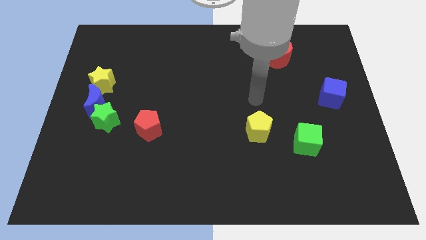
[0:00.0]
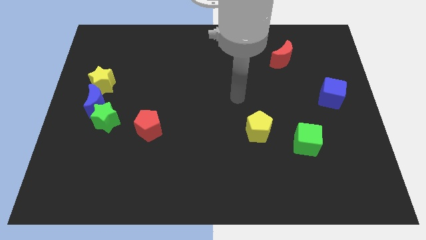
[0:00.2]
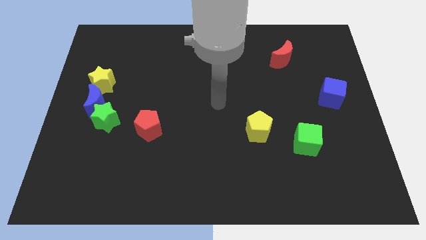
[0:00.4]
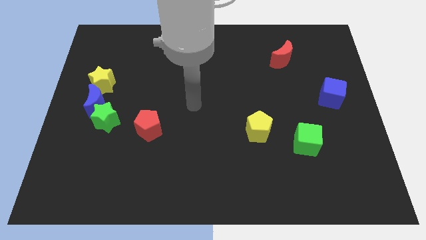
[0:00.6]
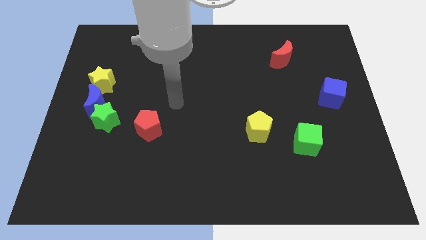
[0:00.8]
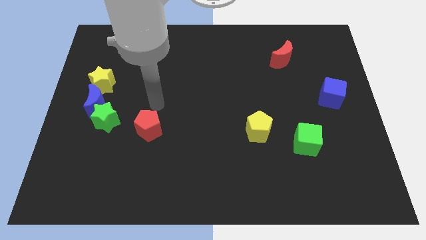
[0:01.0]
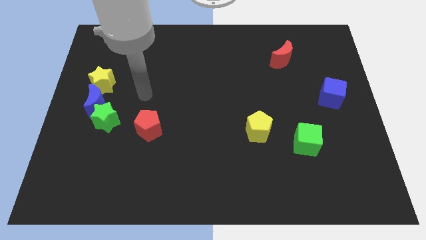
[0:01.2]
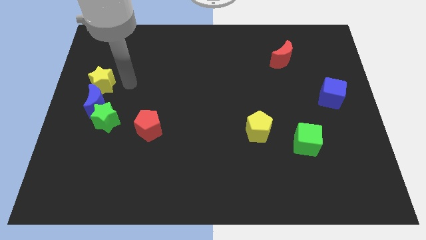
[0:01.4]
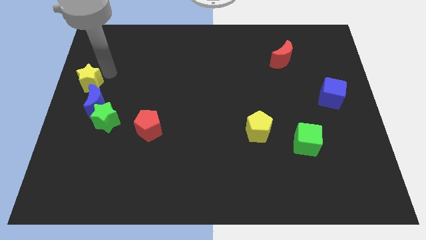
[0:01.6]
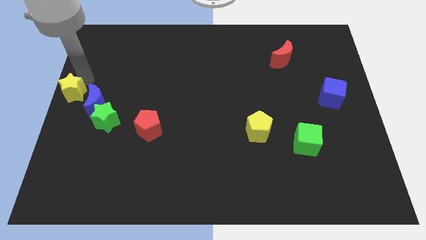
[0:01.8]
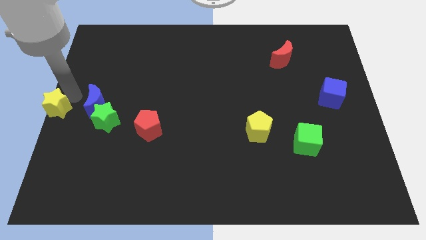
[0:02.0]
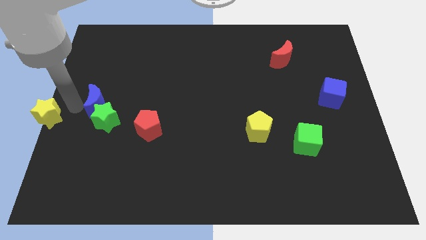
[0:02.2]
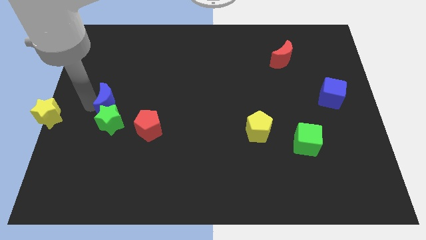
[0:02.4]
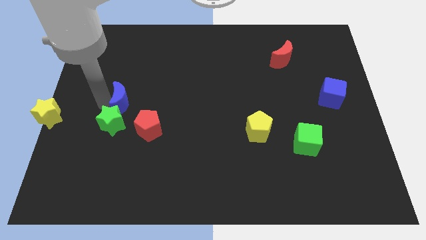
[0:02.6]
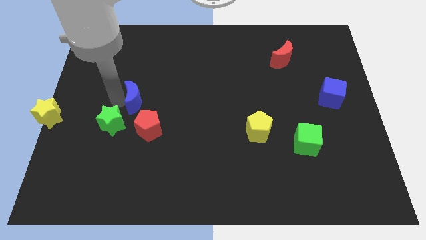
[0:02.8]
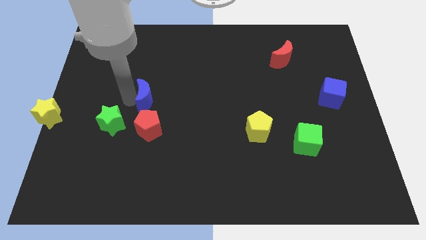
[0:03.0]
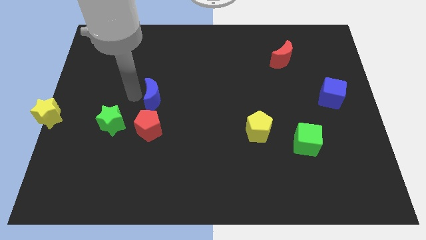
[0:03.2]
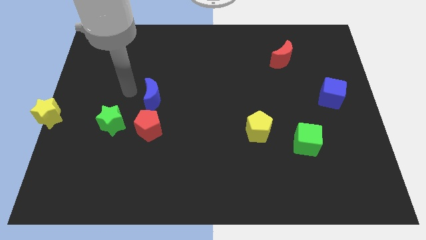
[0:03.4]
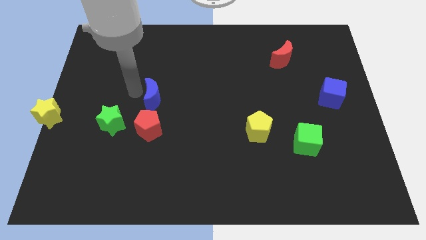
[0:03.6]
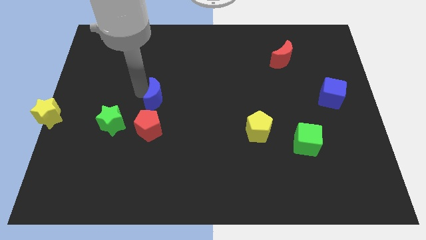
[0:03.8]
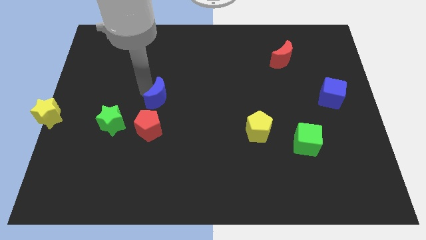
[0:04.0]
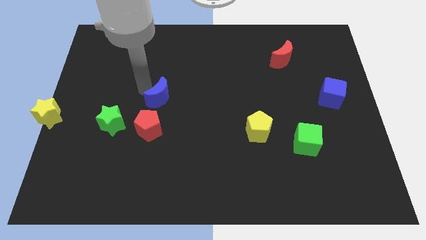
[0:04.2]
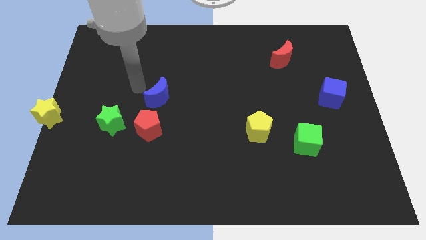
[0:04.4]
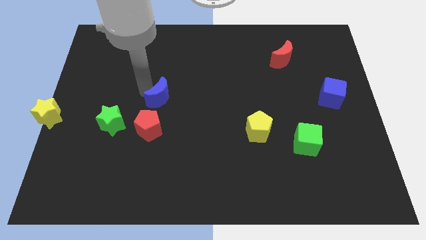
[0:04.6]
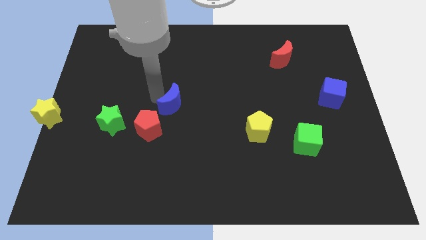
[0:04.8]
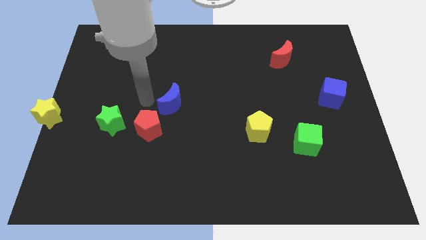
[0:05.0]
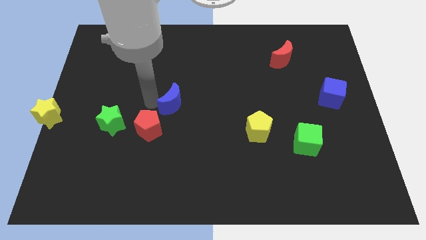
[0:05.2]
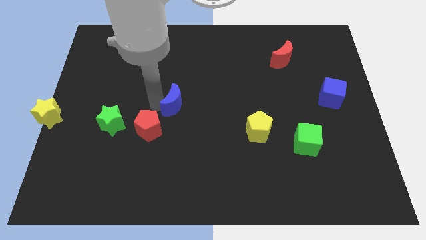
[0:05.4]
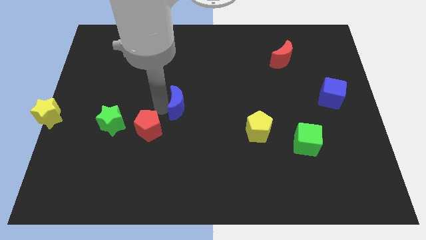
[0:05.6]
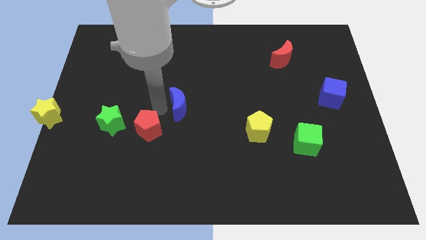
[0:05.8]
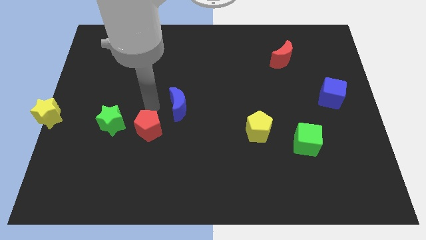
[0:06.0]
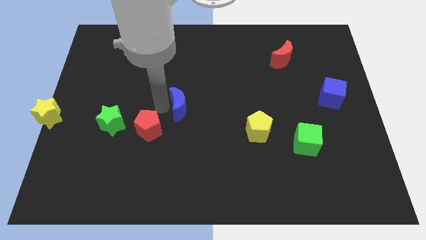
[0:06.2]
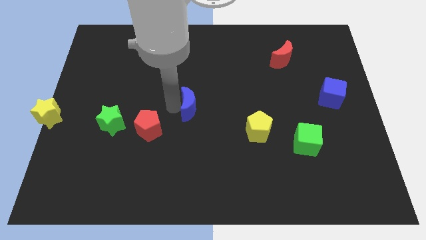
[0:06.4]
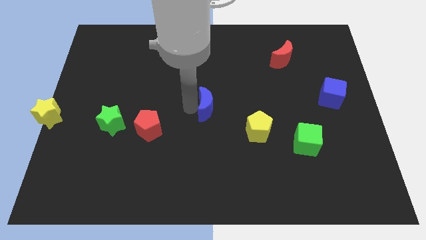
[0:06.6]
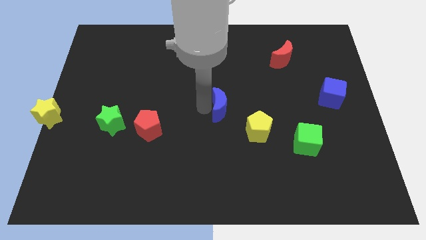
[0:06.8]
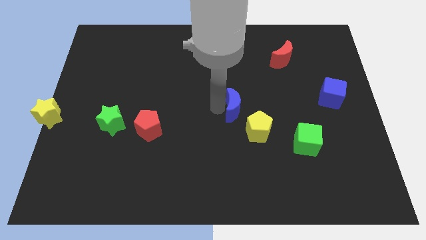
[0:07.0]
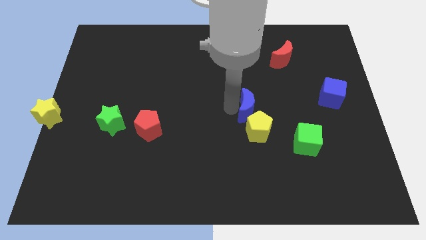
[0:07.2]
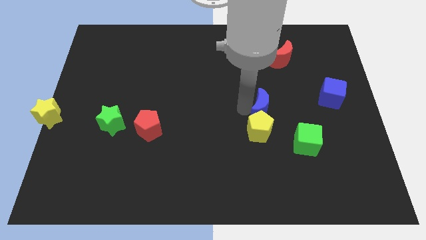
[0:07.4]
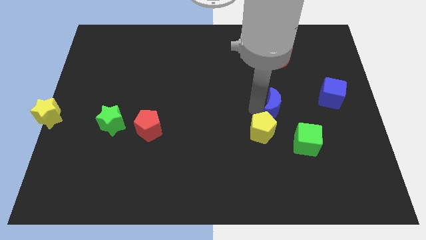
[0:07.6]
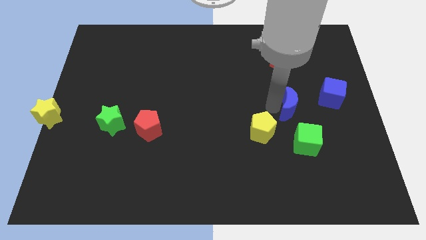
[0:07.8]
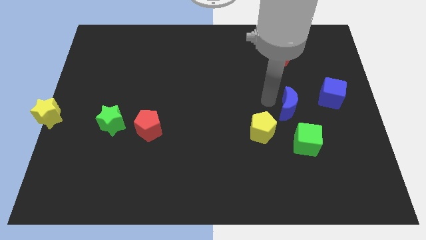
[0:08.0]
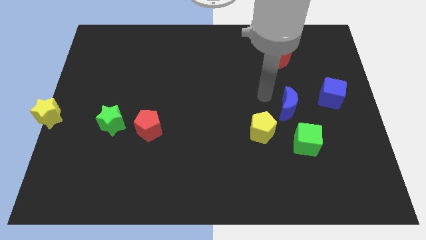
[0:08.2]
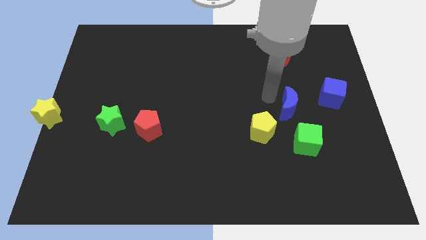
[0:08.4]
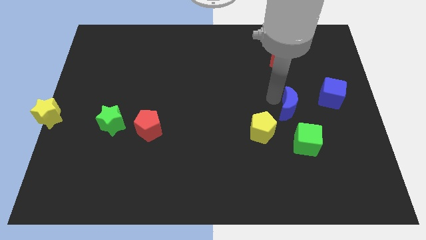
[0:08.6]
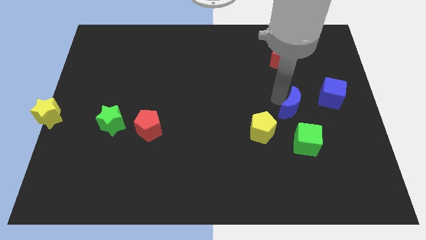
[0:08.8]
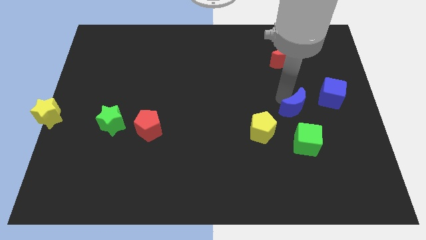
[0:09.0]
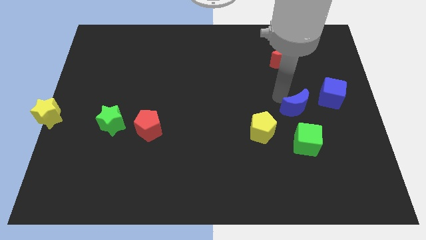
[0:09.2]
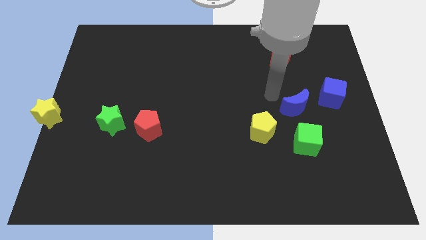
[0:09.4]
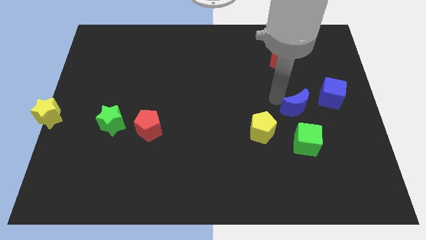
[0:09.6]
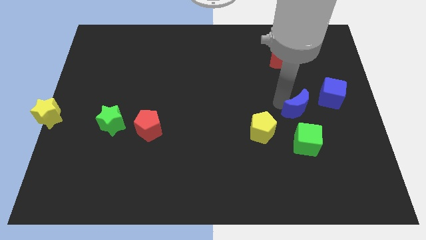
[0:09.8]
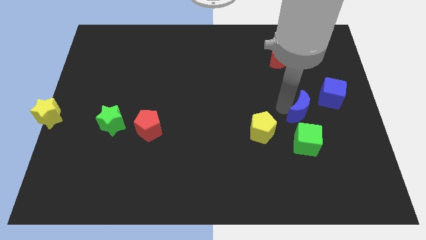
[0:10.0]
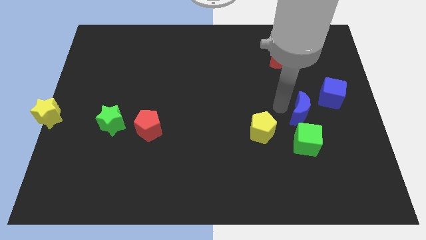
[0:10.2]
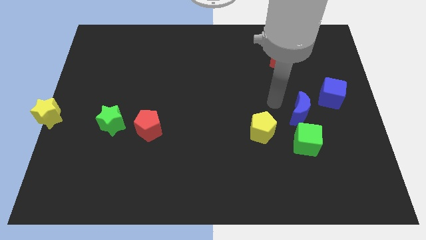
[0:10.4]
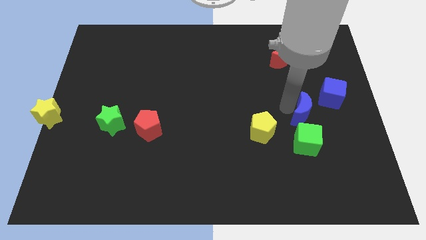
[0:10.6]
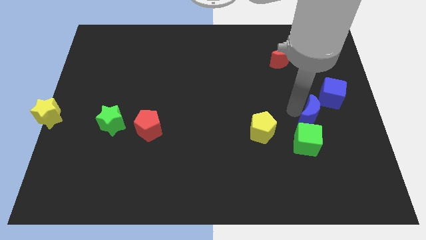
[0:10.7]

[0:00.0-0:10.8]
push the blue moon to the top right side of the green cube

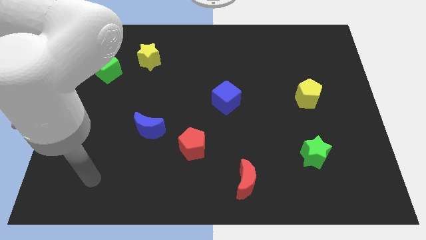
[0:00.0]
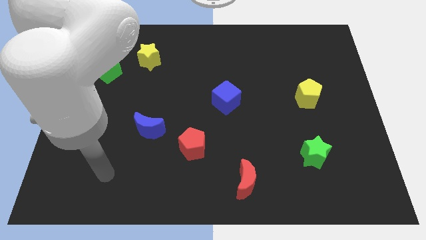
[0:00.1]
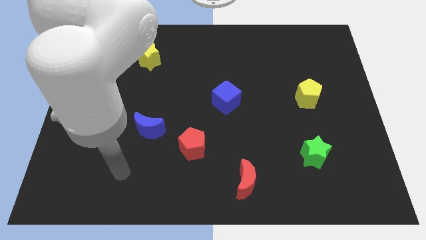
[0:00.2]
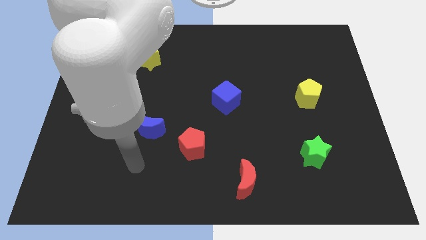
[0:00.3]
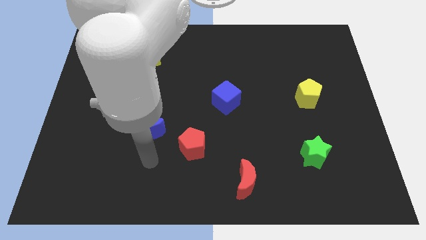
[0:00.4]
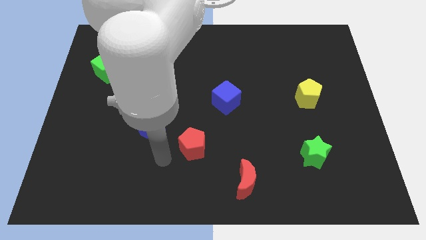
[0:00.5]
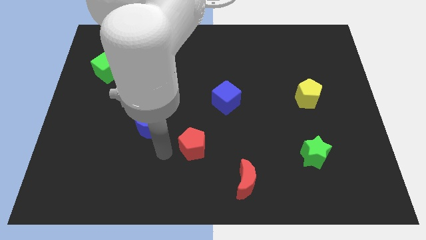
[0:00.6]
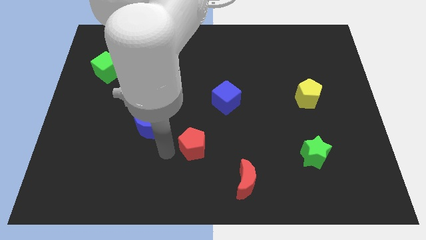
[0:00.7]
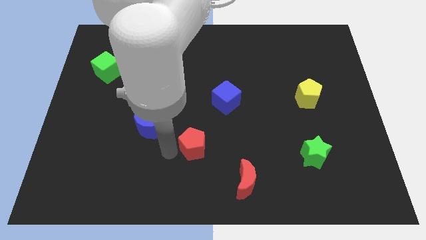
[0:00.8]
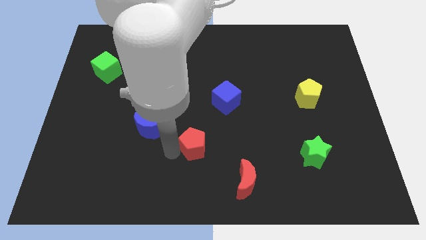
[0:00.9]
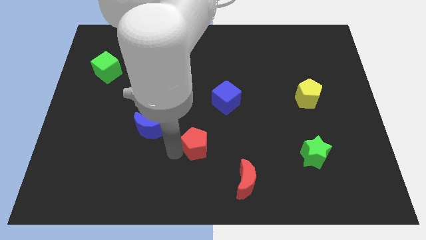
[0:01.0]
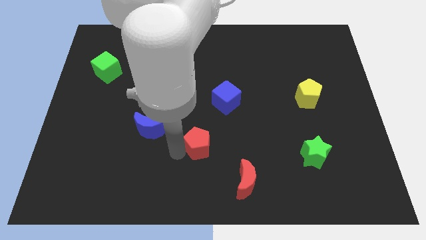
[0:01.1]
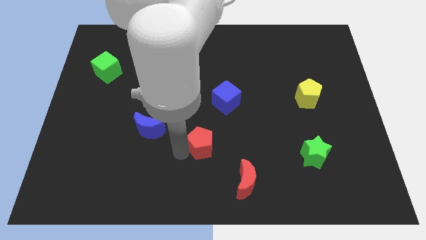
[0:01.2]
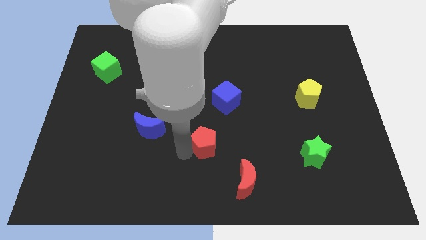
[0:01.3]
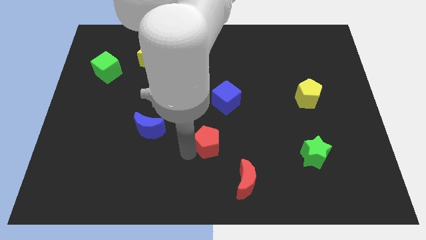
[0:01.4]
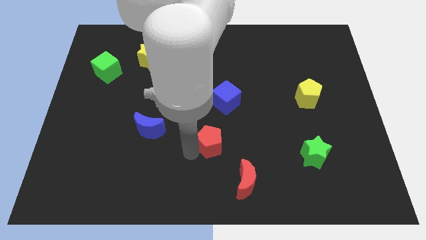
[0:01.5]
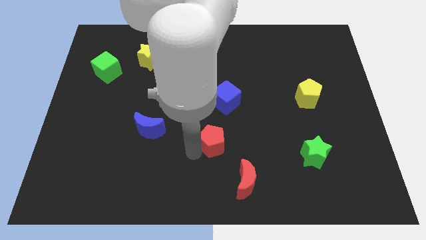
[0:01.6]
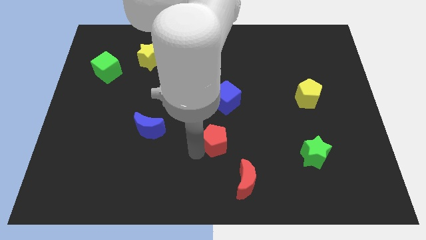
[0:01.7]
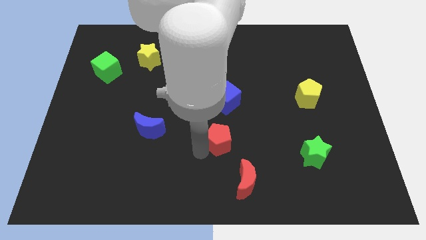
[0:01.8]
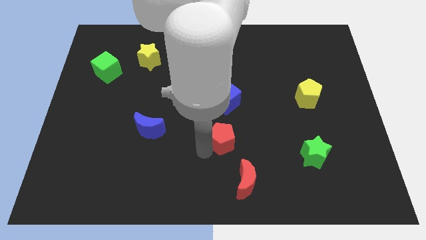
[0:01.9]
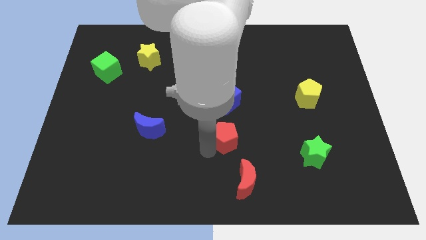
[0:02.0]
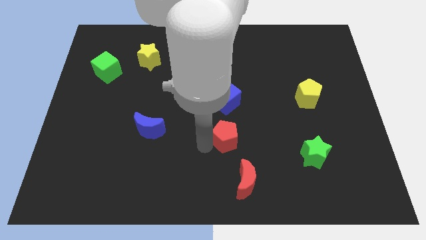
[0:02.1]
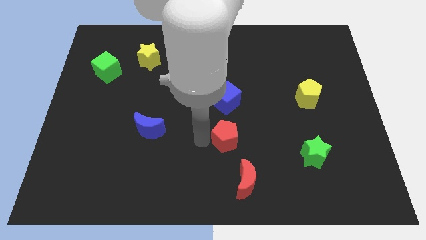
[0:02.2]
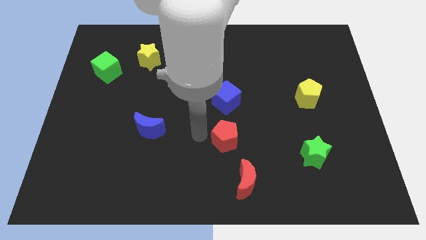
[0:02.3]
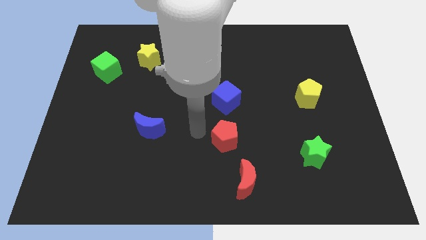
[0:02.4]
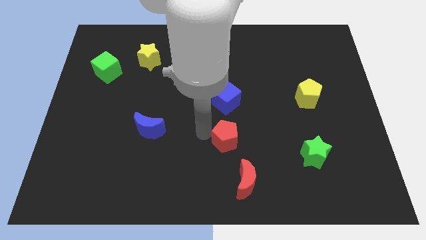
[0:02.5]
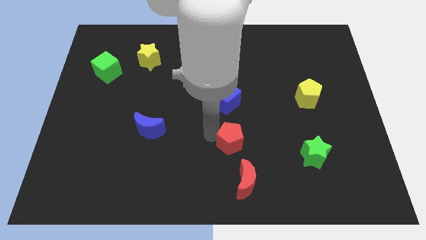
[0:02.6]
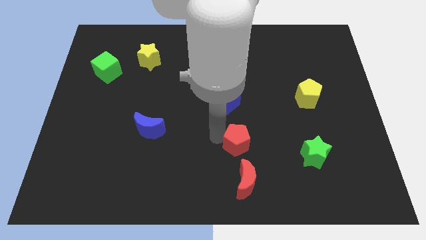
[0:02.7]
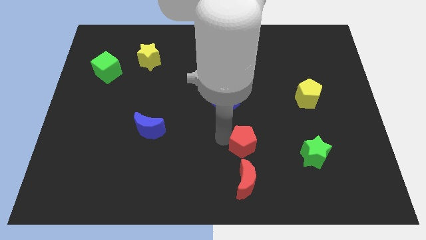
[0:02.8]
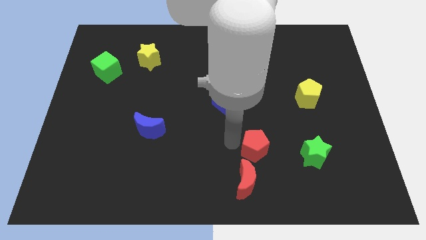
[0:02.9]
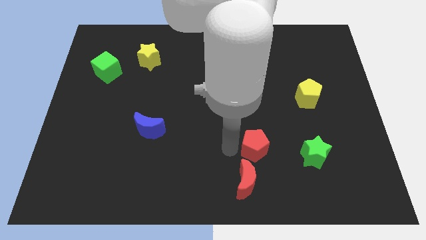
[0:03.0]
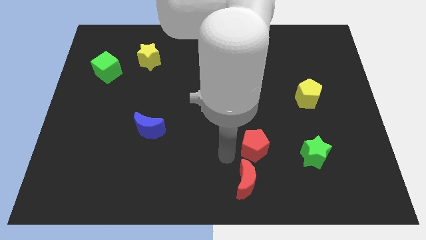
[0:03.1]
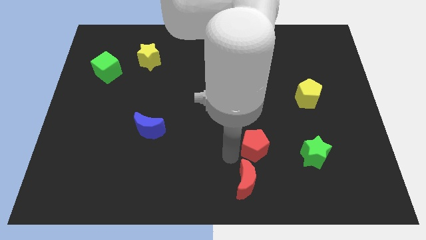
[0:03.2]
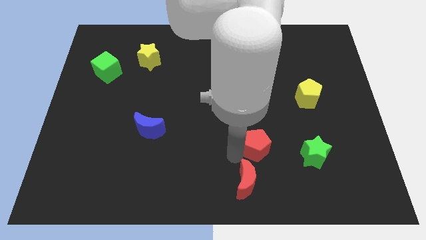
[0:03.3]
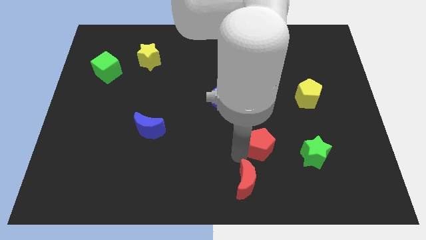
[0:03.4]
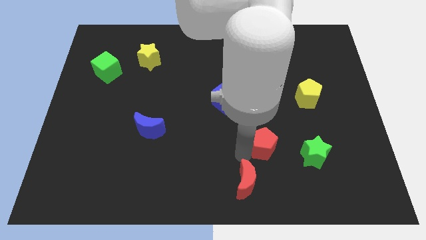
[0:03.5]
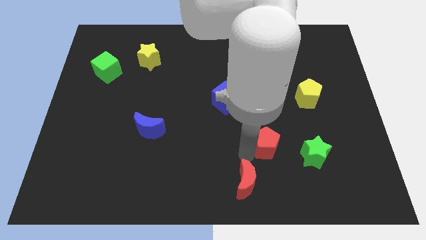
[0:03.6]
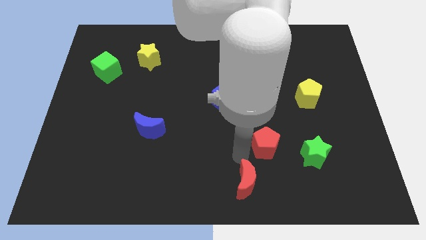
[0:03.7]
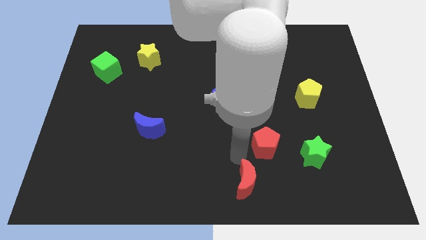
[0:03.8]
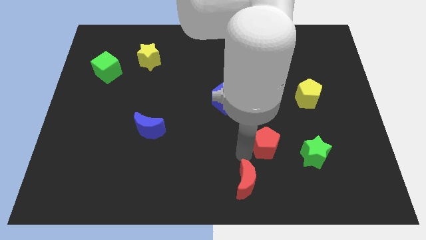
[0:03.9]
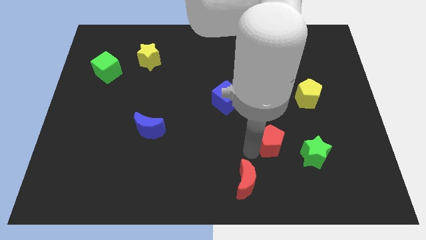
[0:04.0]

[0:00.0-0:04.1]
put the red pentagon to the top left side of the green star
